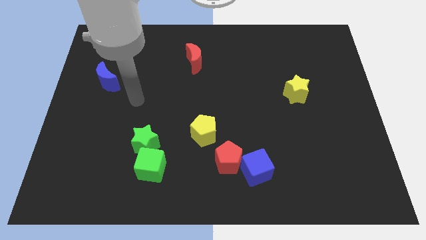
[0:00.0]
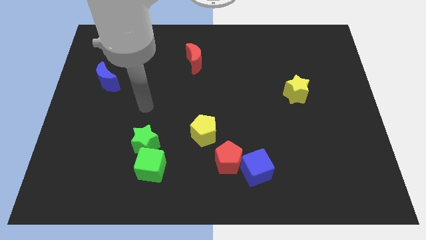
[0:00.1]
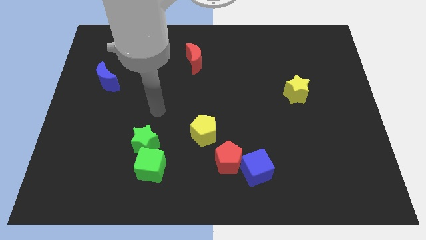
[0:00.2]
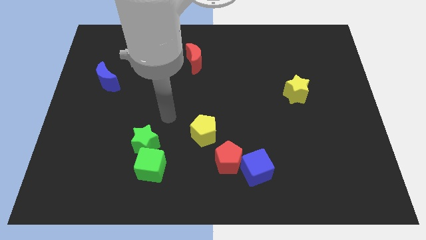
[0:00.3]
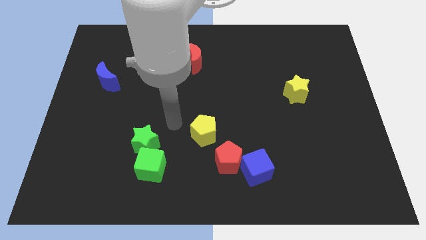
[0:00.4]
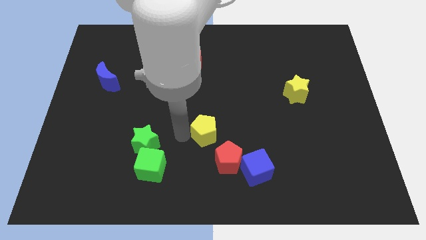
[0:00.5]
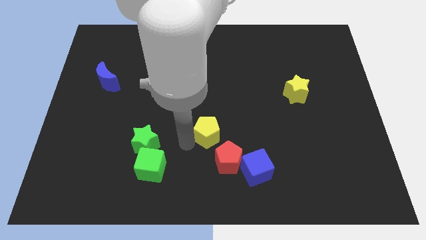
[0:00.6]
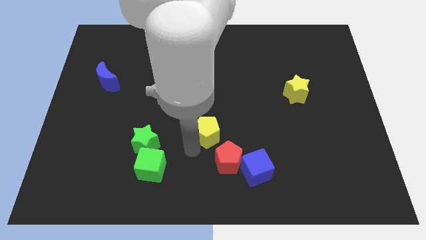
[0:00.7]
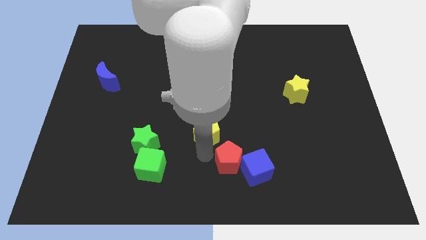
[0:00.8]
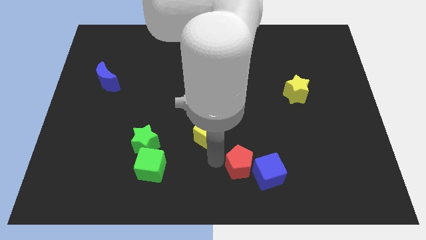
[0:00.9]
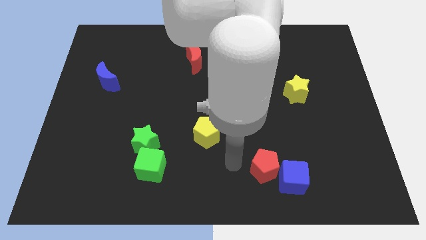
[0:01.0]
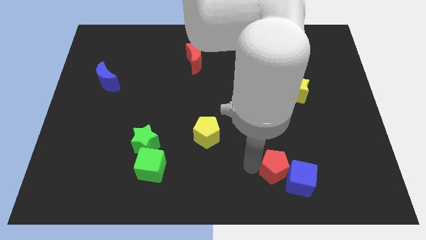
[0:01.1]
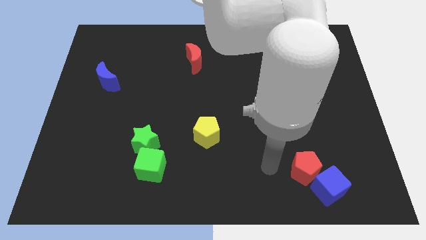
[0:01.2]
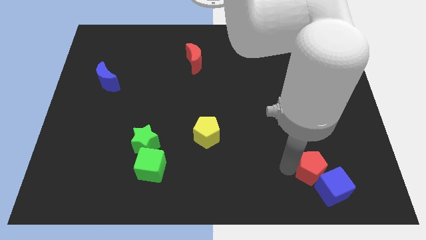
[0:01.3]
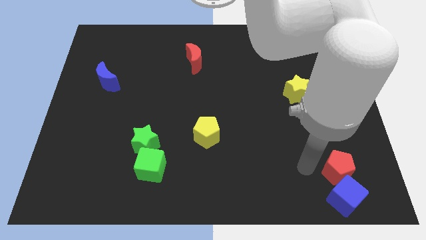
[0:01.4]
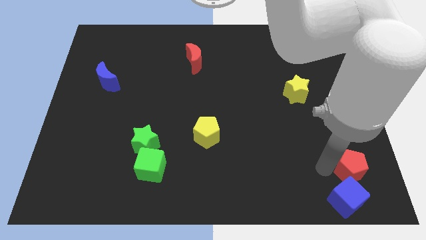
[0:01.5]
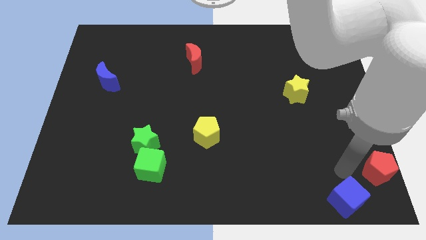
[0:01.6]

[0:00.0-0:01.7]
pull the blue cube apart from the red pentagon

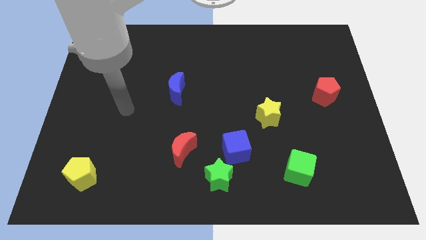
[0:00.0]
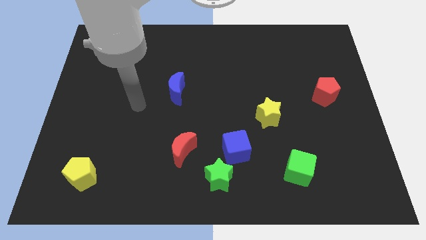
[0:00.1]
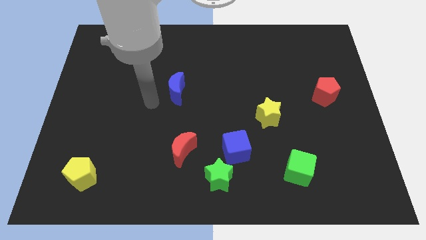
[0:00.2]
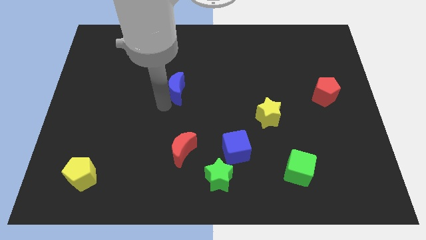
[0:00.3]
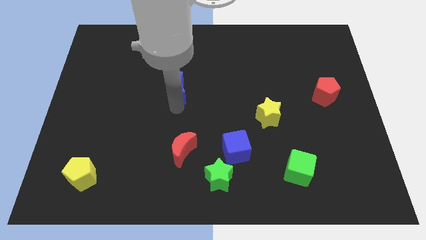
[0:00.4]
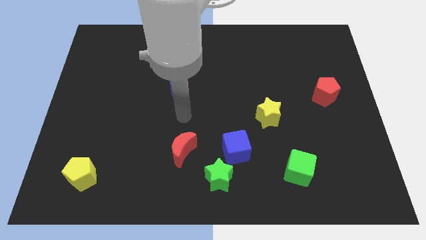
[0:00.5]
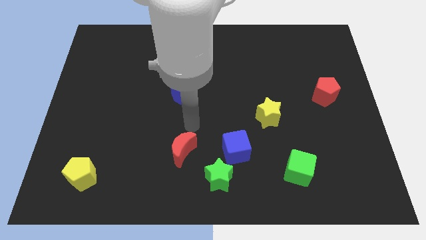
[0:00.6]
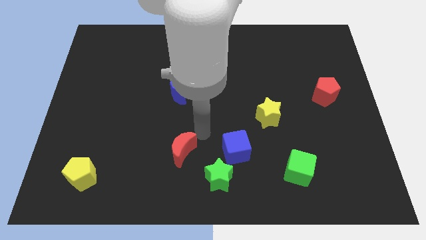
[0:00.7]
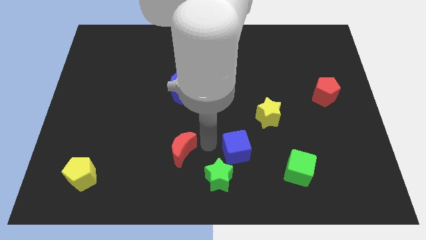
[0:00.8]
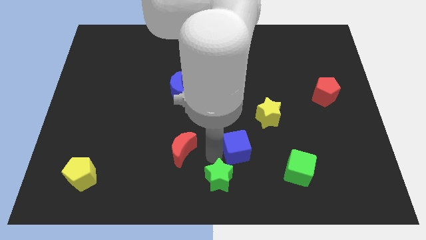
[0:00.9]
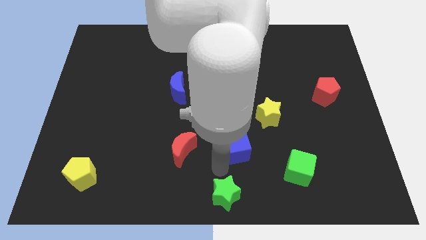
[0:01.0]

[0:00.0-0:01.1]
move the blue cube away from the green star

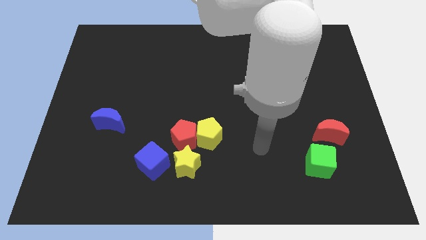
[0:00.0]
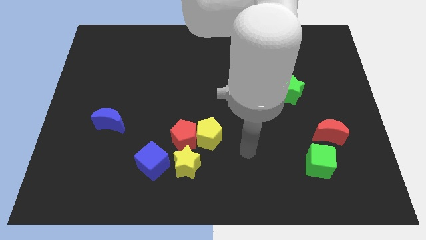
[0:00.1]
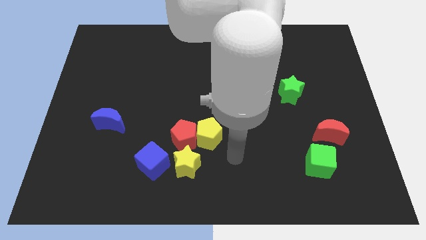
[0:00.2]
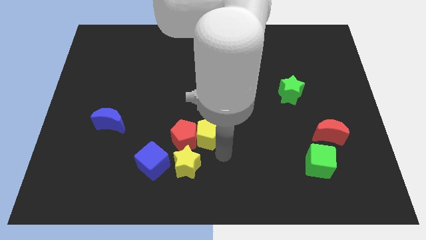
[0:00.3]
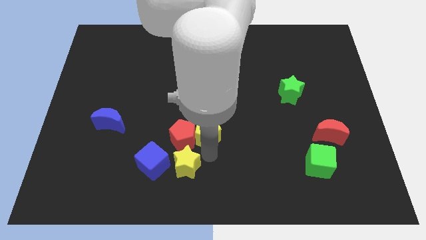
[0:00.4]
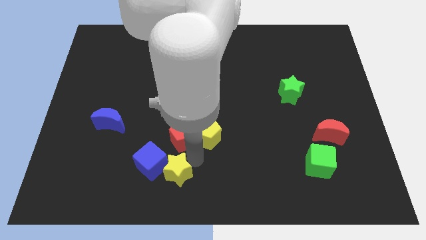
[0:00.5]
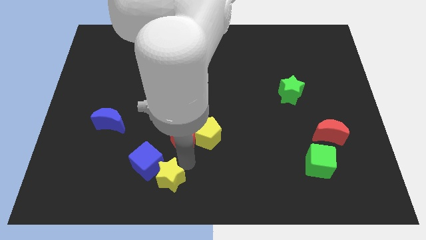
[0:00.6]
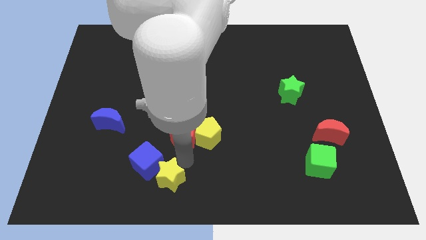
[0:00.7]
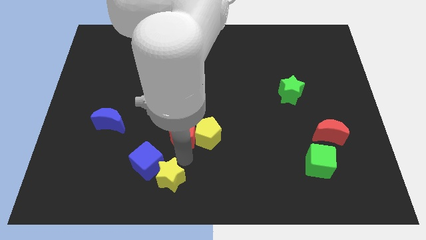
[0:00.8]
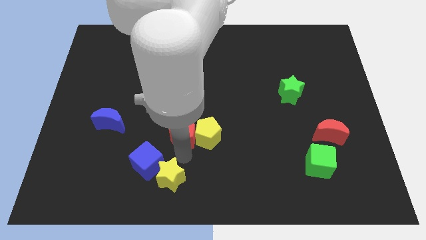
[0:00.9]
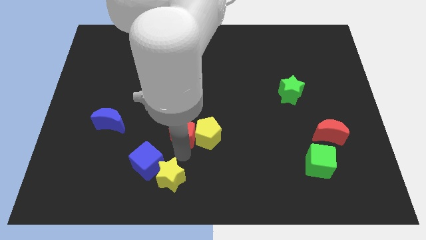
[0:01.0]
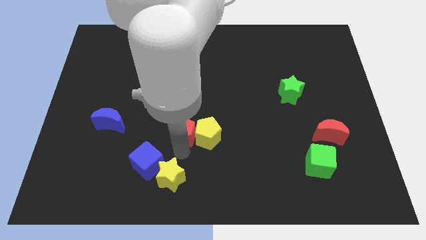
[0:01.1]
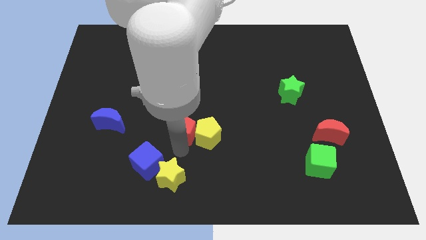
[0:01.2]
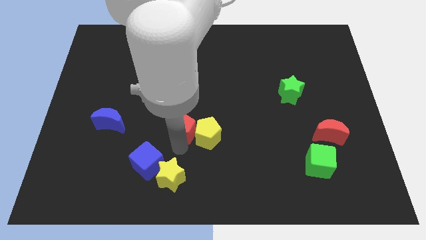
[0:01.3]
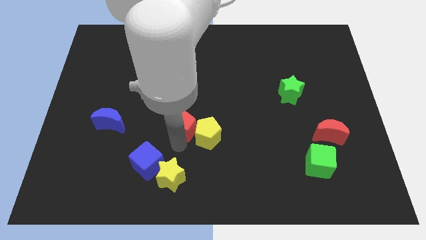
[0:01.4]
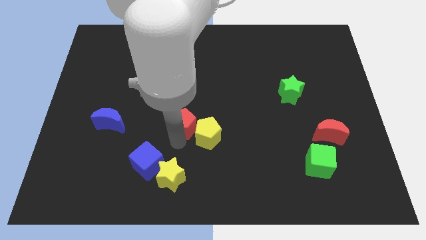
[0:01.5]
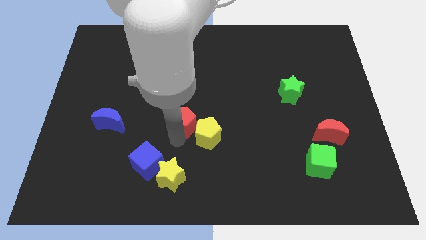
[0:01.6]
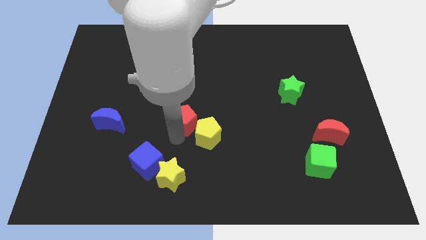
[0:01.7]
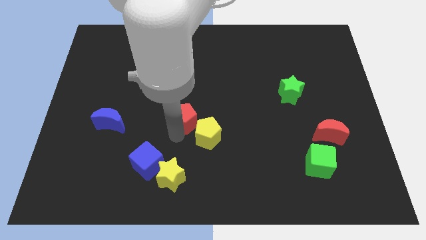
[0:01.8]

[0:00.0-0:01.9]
pull the red pentagon apart from the clump

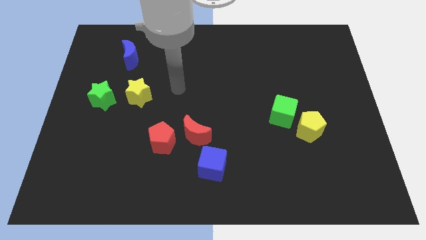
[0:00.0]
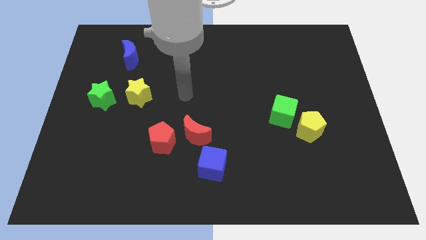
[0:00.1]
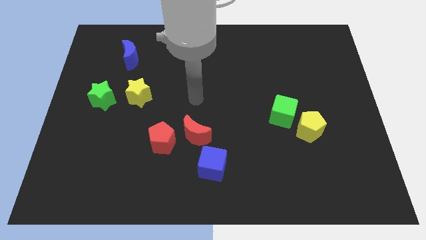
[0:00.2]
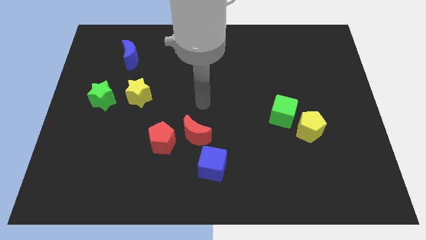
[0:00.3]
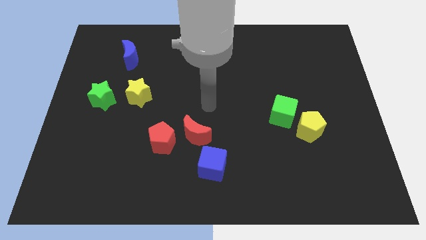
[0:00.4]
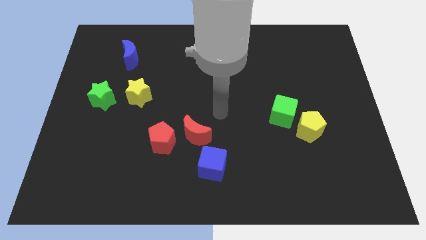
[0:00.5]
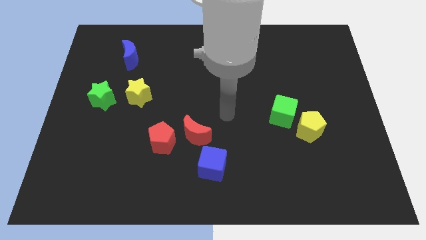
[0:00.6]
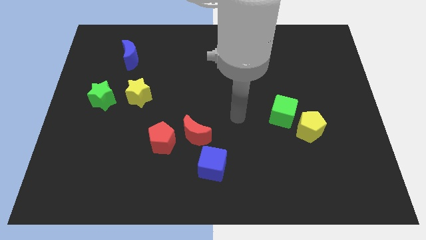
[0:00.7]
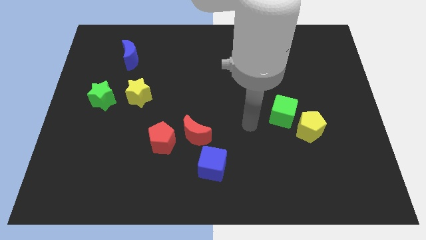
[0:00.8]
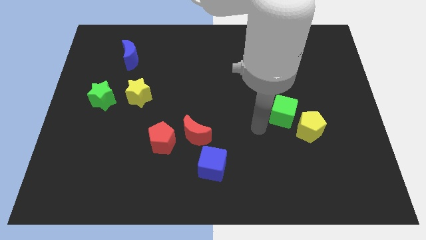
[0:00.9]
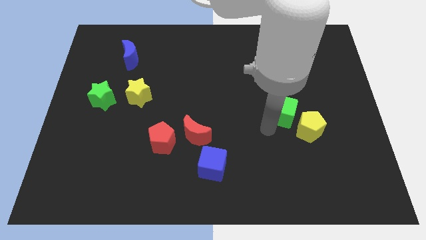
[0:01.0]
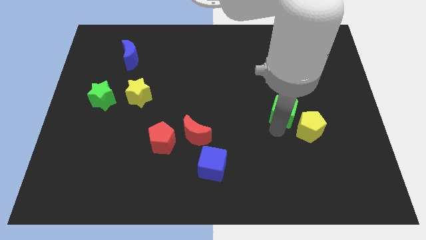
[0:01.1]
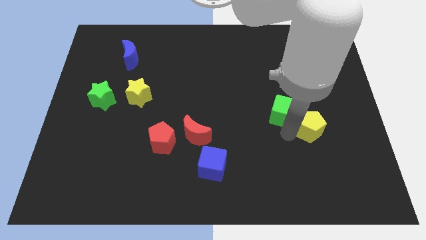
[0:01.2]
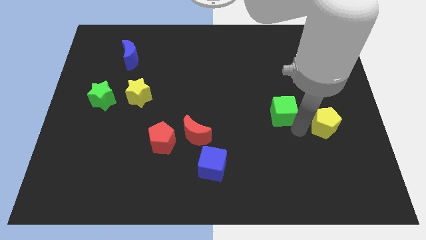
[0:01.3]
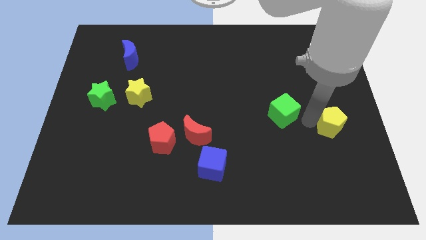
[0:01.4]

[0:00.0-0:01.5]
move the green cube away from the yellow pentagon

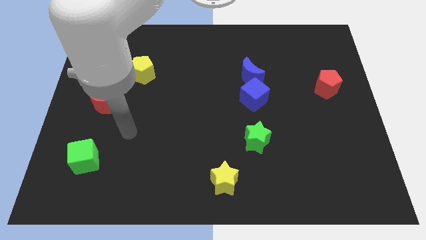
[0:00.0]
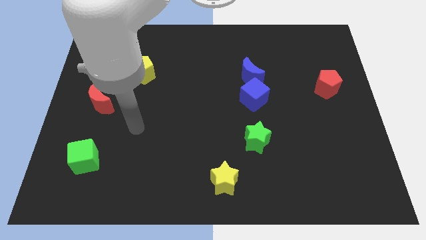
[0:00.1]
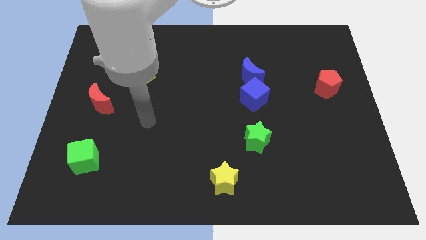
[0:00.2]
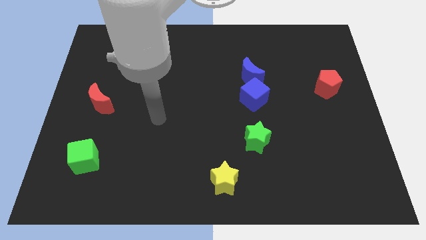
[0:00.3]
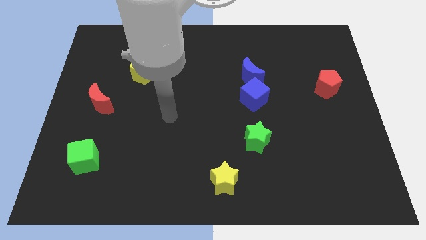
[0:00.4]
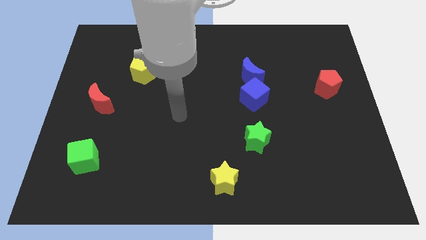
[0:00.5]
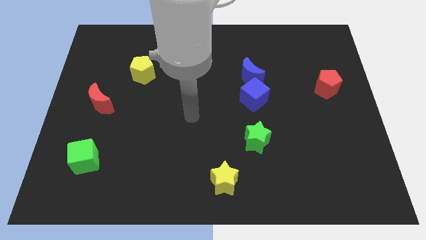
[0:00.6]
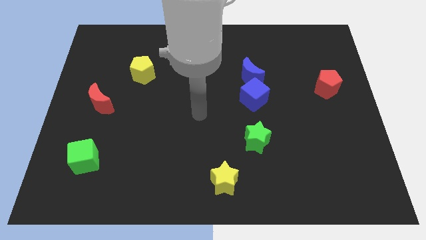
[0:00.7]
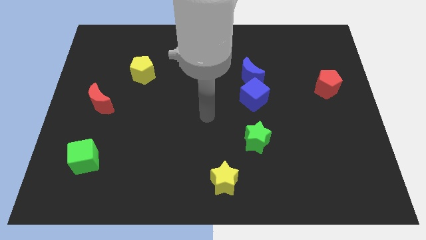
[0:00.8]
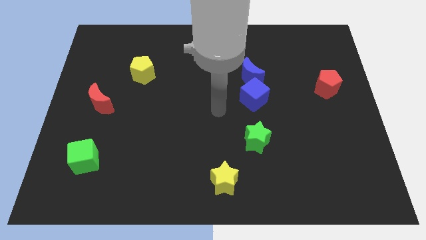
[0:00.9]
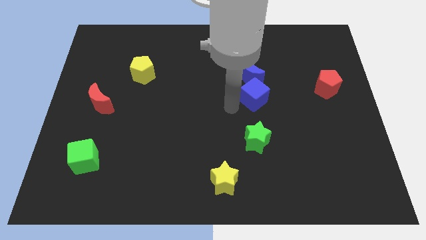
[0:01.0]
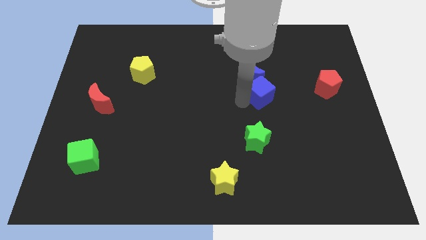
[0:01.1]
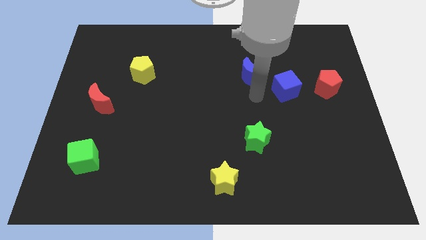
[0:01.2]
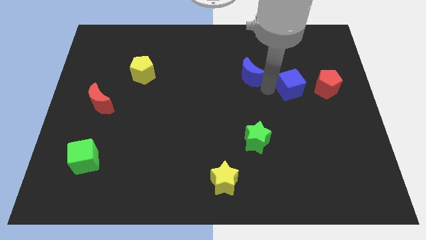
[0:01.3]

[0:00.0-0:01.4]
move the blue moon away from the blue cube

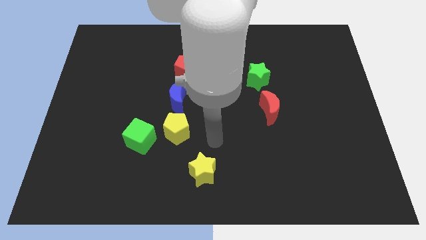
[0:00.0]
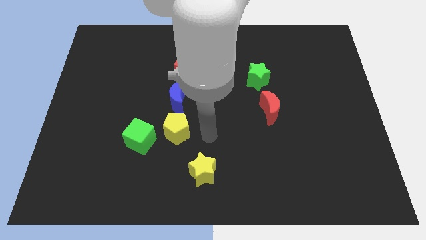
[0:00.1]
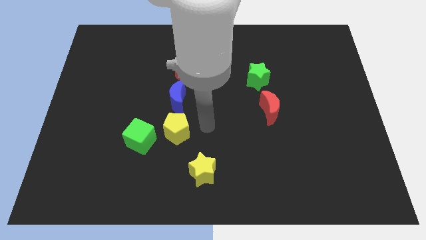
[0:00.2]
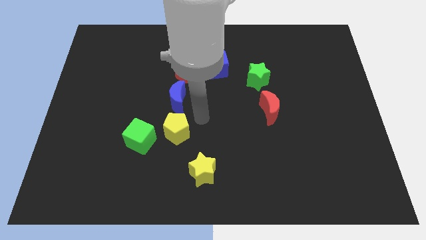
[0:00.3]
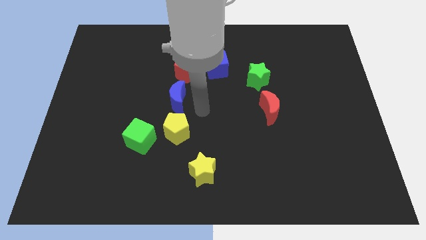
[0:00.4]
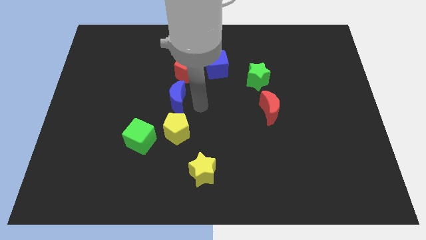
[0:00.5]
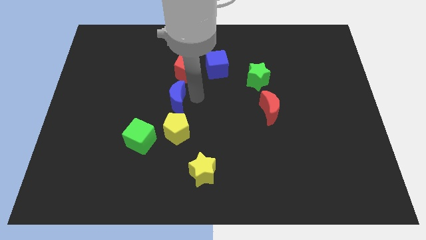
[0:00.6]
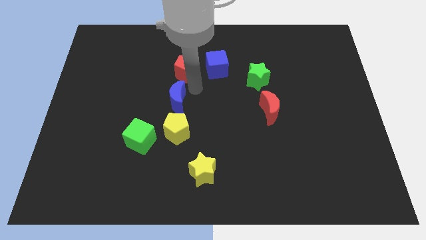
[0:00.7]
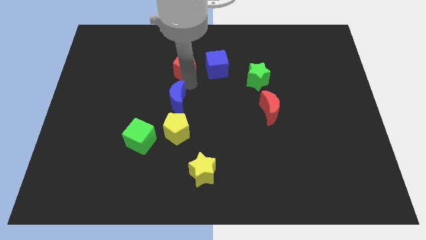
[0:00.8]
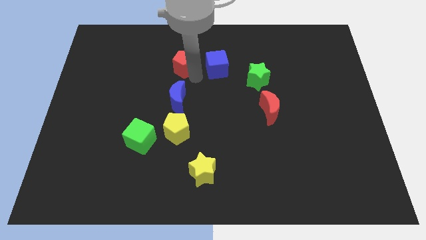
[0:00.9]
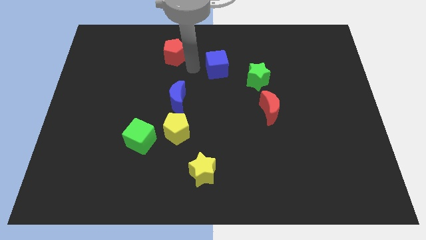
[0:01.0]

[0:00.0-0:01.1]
move the blue cube away from the red pentagon

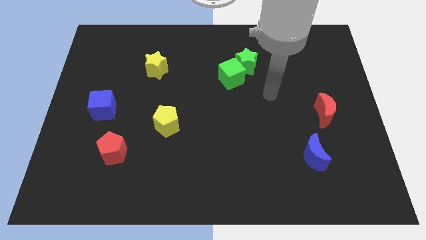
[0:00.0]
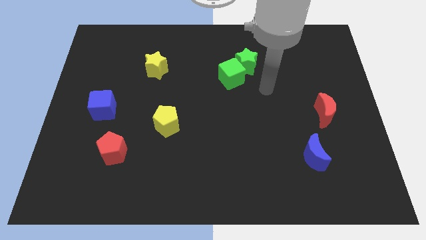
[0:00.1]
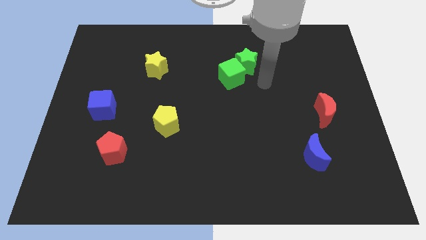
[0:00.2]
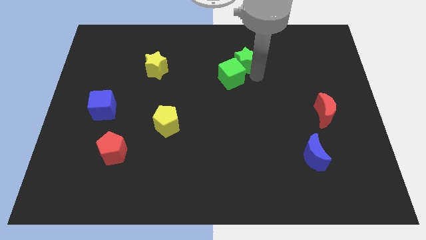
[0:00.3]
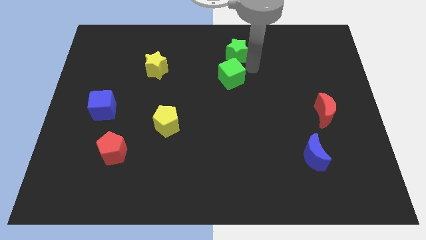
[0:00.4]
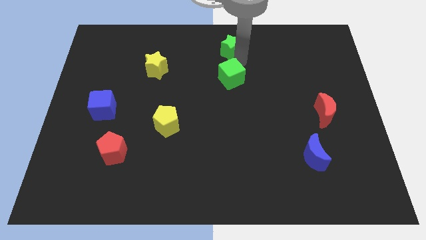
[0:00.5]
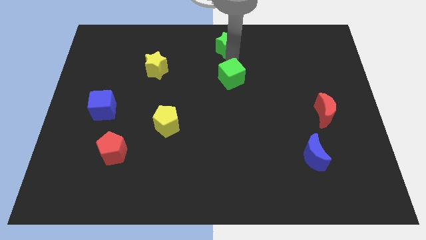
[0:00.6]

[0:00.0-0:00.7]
separate the green cube from the green star
